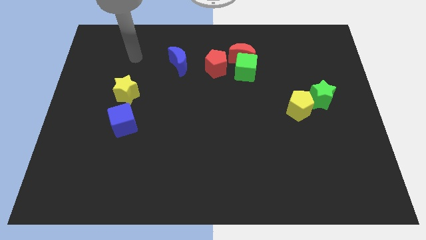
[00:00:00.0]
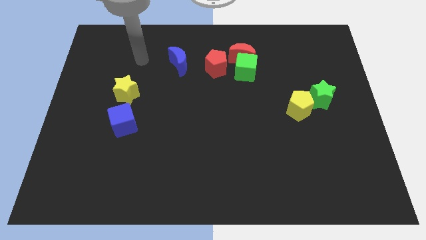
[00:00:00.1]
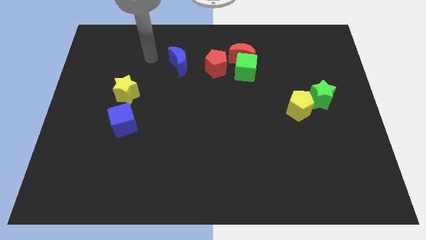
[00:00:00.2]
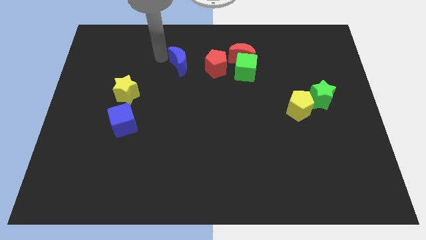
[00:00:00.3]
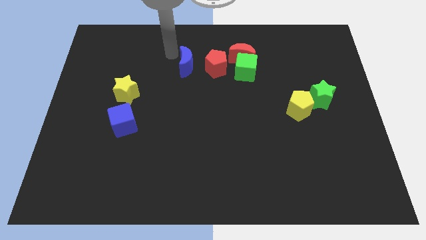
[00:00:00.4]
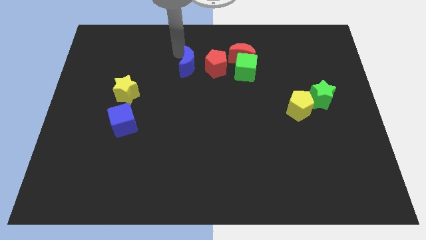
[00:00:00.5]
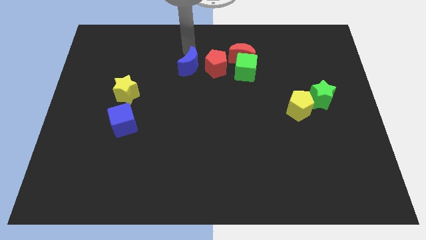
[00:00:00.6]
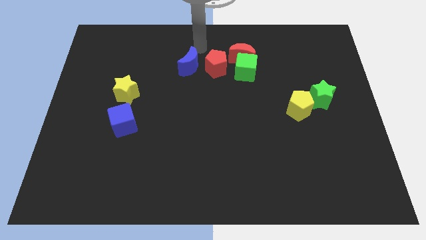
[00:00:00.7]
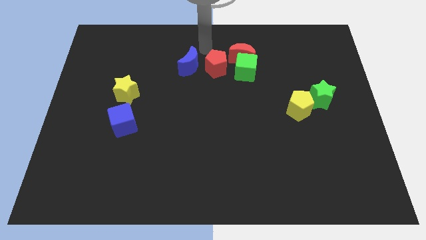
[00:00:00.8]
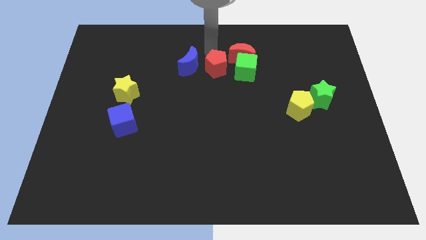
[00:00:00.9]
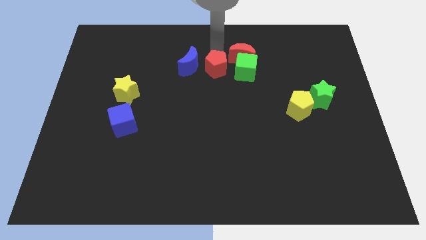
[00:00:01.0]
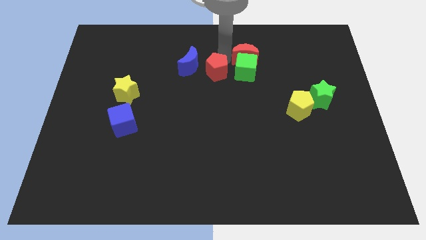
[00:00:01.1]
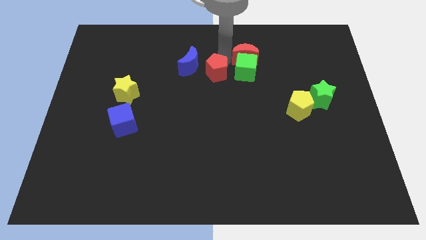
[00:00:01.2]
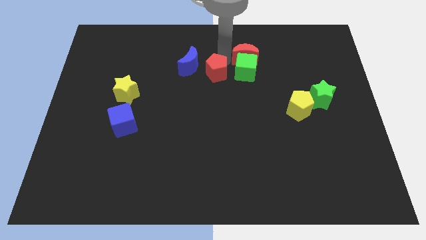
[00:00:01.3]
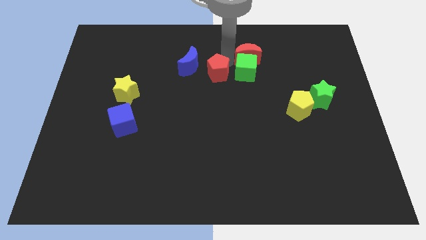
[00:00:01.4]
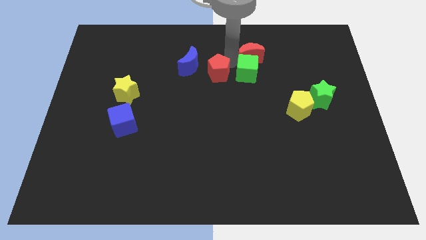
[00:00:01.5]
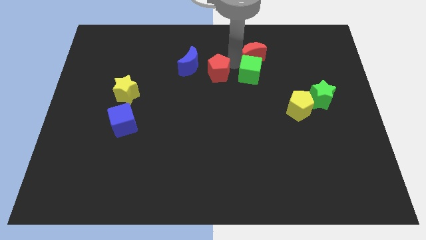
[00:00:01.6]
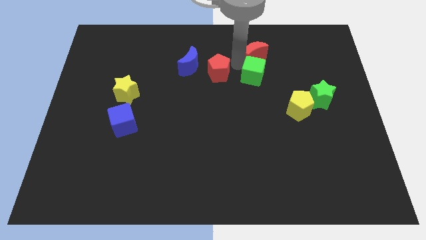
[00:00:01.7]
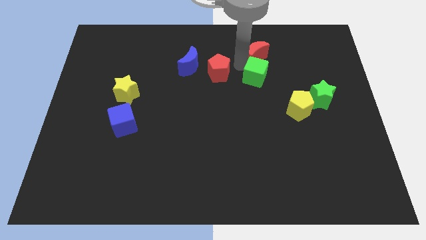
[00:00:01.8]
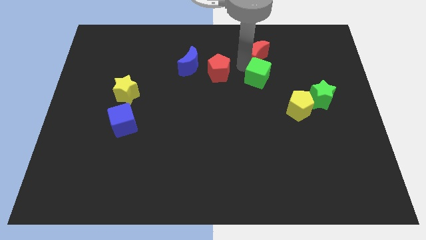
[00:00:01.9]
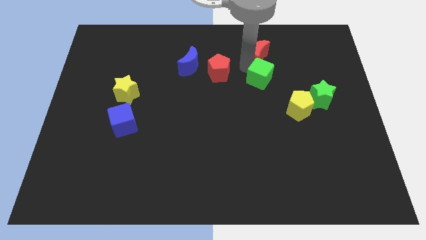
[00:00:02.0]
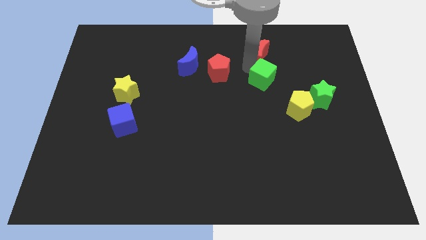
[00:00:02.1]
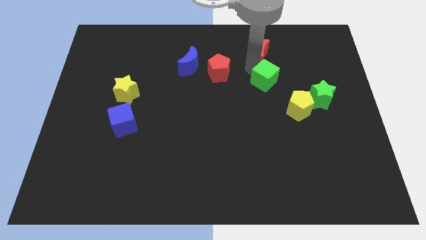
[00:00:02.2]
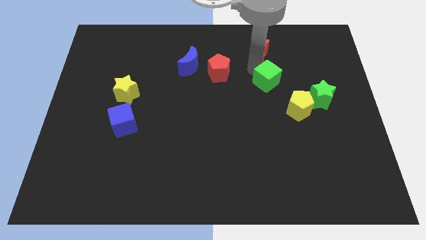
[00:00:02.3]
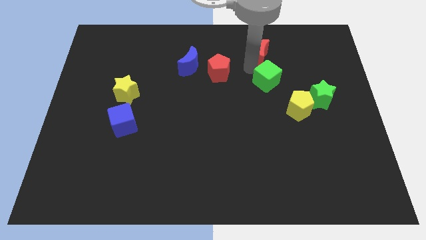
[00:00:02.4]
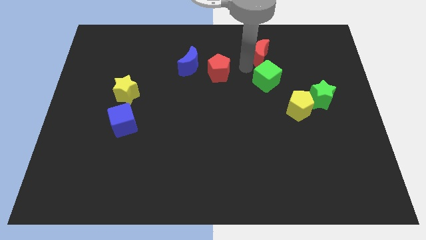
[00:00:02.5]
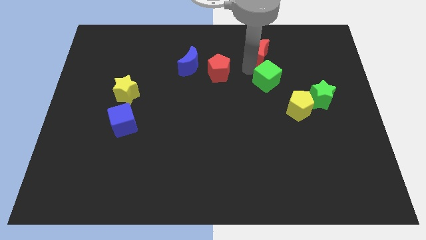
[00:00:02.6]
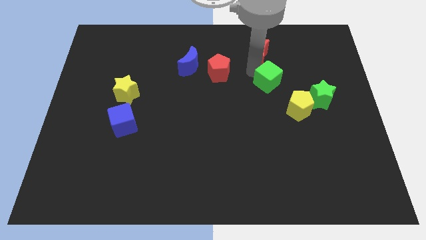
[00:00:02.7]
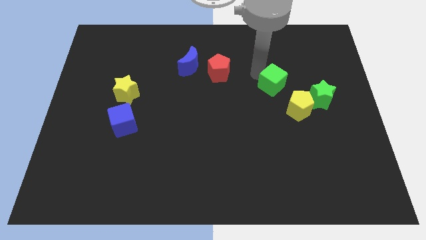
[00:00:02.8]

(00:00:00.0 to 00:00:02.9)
pull the green cube apart from the red moon and red pentagon

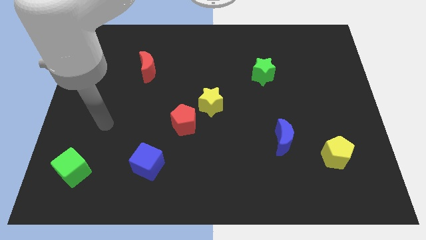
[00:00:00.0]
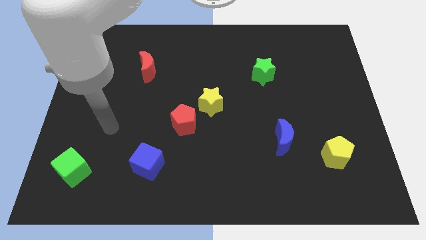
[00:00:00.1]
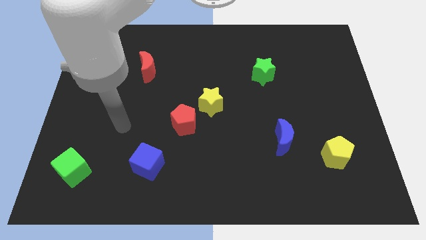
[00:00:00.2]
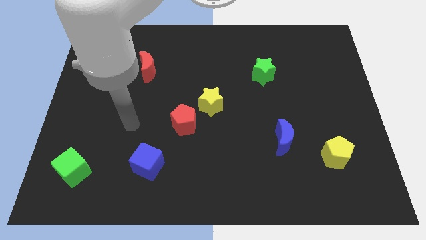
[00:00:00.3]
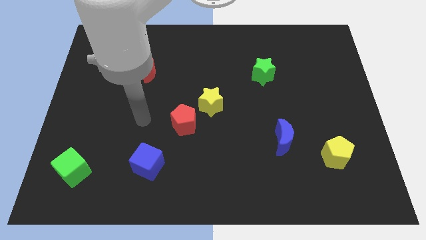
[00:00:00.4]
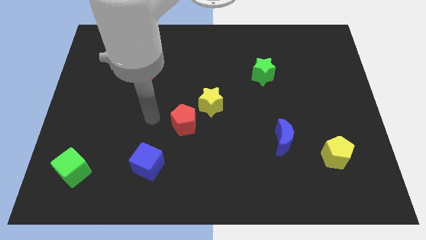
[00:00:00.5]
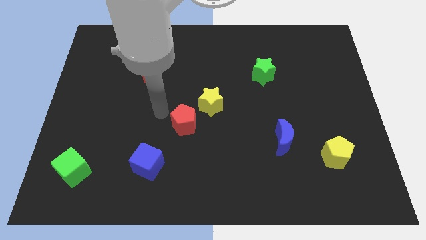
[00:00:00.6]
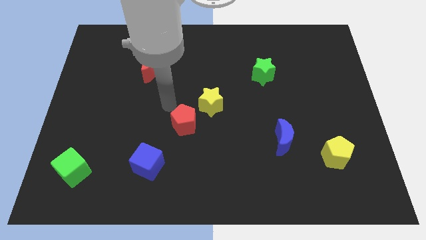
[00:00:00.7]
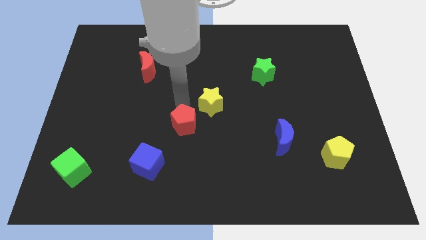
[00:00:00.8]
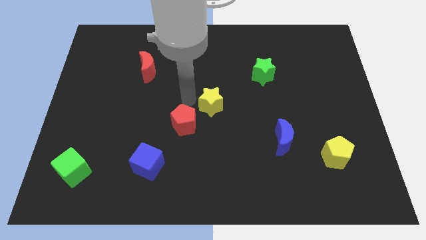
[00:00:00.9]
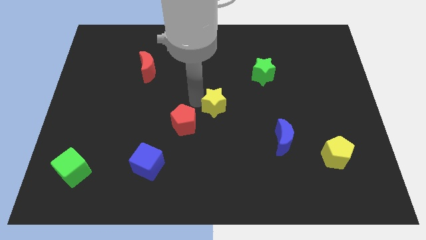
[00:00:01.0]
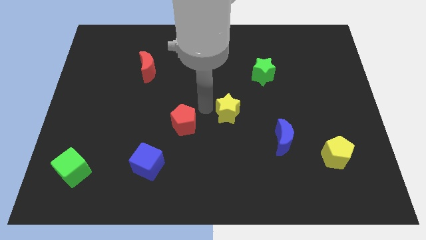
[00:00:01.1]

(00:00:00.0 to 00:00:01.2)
separate the red pentagon from the yellow star

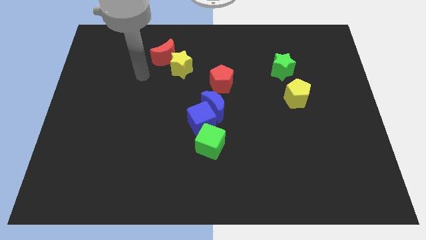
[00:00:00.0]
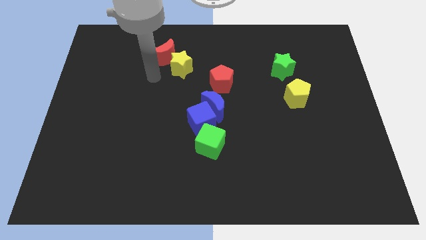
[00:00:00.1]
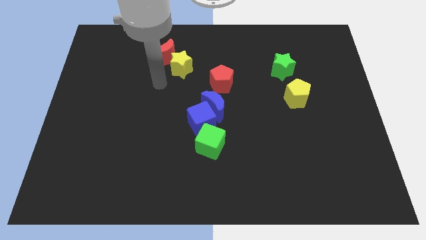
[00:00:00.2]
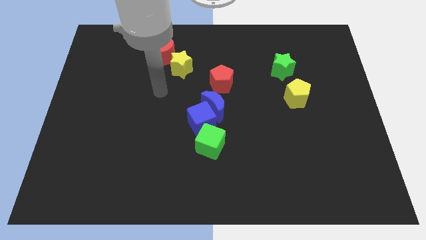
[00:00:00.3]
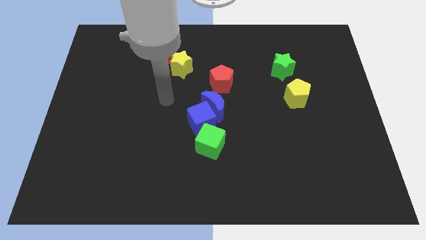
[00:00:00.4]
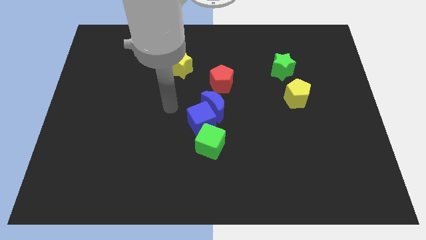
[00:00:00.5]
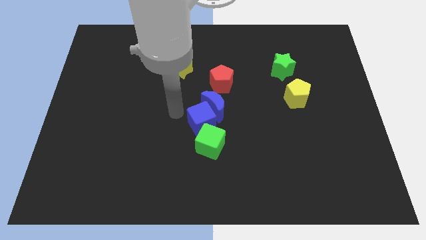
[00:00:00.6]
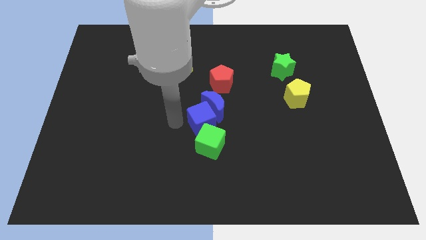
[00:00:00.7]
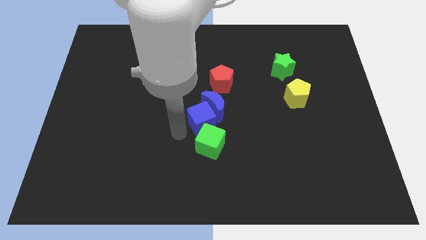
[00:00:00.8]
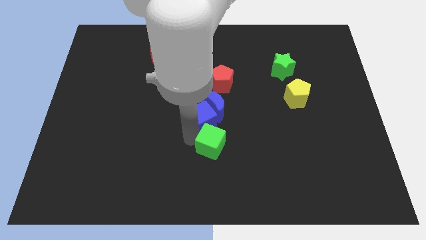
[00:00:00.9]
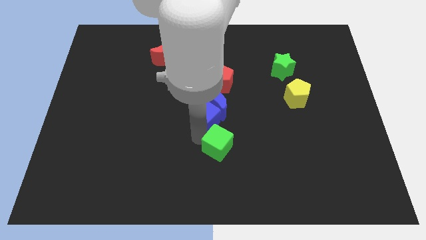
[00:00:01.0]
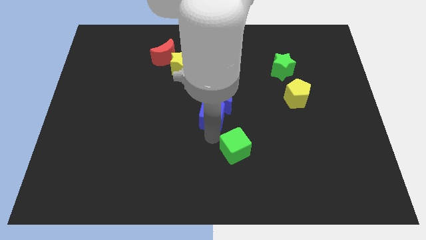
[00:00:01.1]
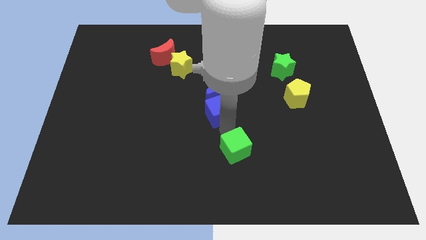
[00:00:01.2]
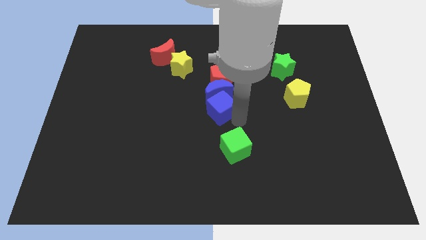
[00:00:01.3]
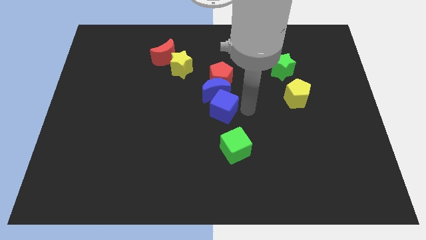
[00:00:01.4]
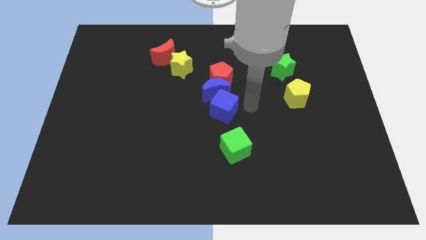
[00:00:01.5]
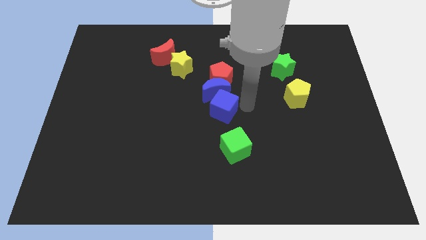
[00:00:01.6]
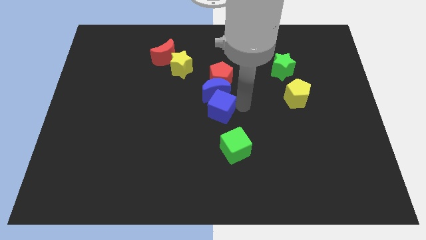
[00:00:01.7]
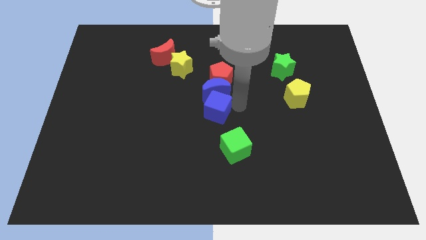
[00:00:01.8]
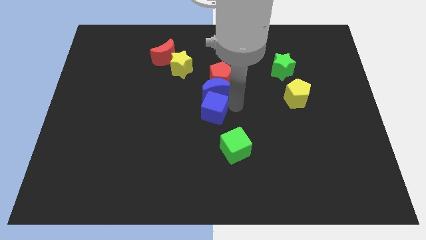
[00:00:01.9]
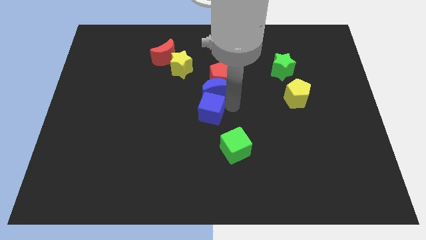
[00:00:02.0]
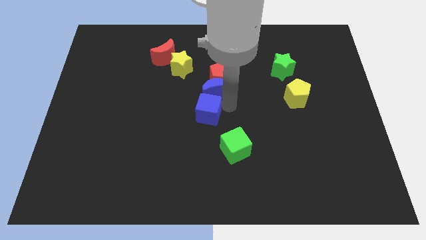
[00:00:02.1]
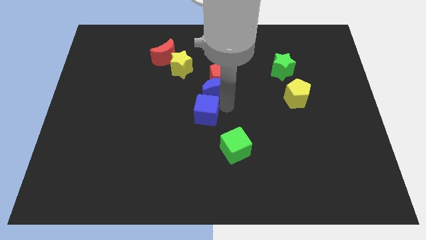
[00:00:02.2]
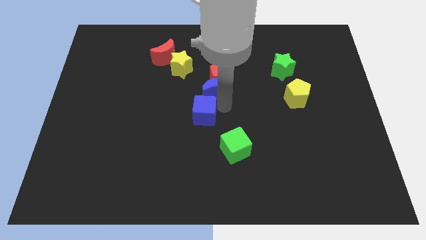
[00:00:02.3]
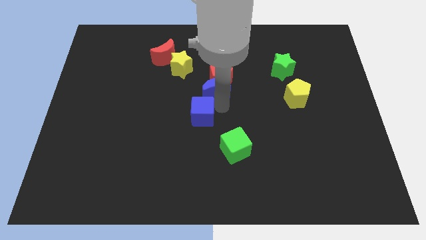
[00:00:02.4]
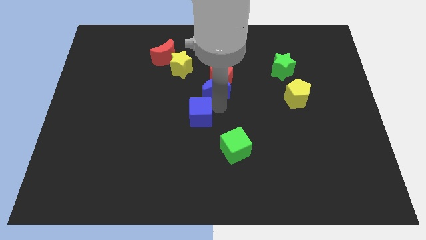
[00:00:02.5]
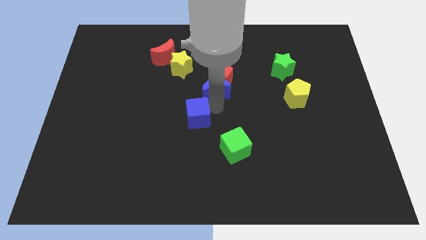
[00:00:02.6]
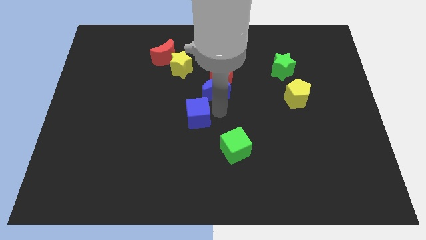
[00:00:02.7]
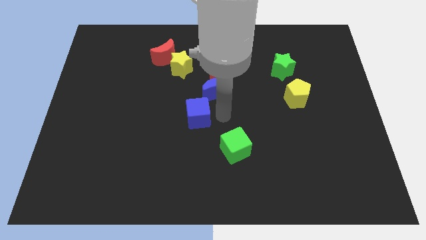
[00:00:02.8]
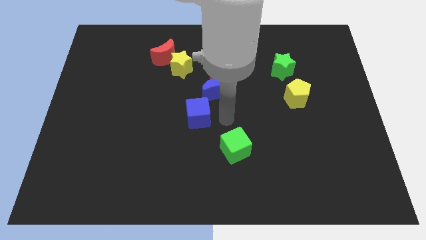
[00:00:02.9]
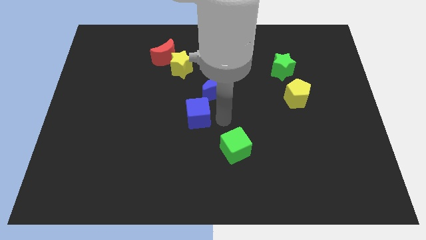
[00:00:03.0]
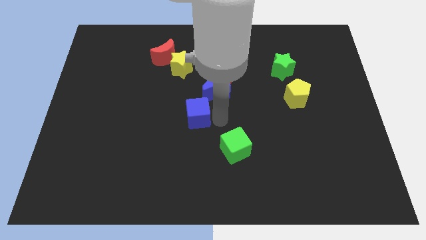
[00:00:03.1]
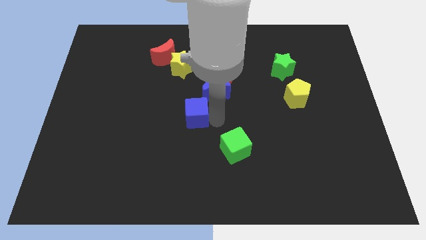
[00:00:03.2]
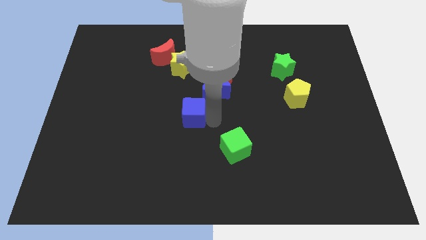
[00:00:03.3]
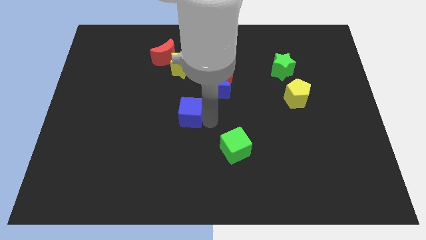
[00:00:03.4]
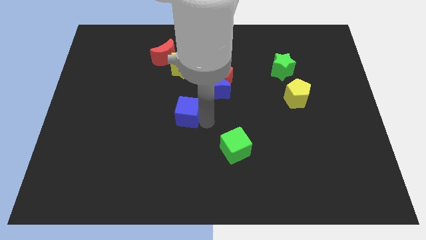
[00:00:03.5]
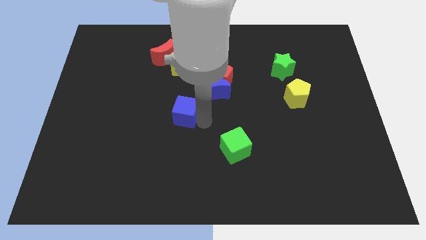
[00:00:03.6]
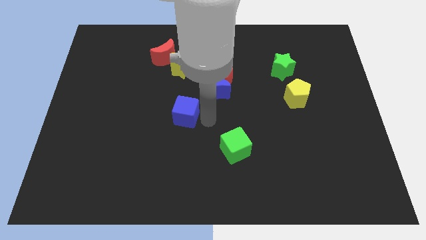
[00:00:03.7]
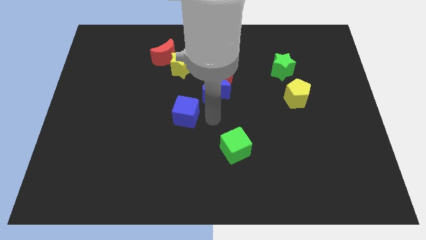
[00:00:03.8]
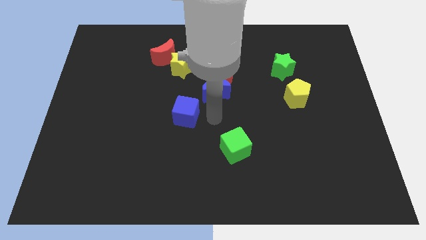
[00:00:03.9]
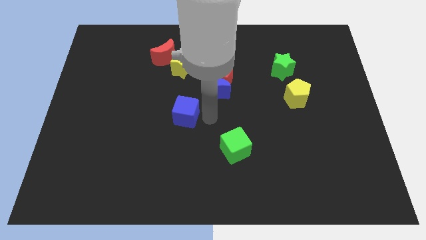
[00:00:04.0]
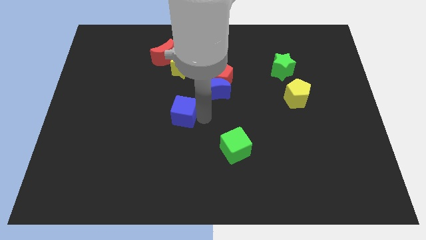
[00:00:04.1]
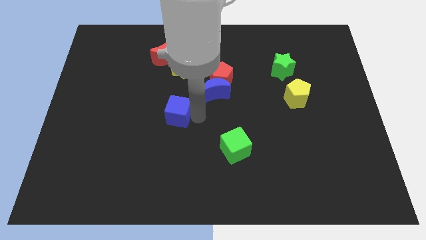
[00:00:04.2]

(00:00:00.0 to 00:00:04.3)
pull the blue cube apart from the blue moon and green cube

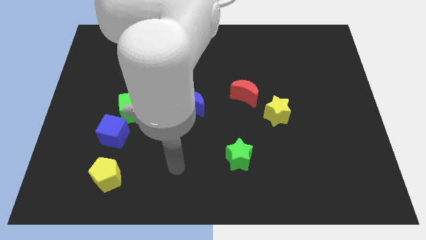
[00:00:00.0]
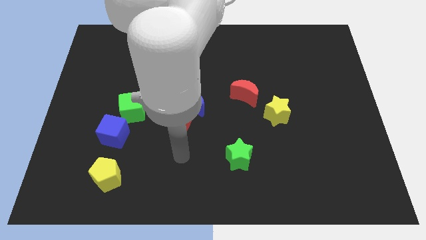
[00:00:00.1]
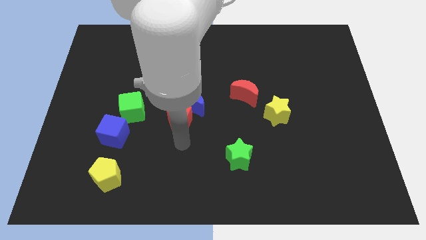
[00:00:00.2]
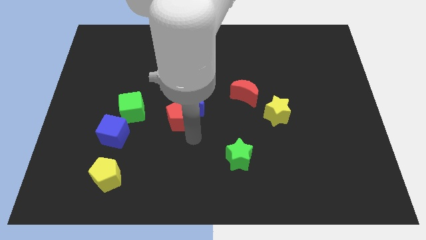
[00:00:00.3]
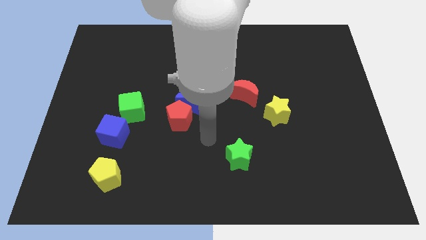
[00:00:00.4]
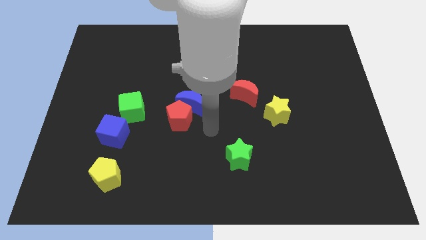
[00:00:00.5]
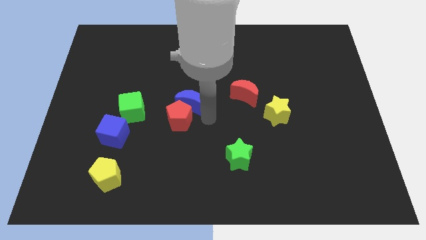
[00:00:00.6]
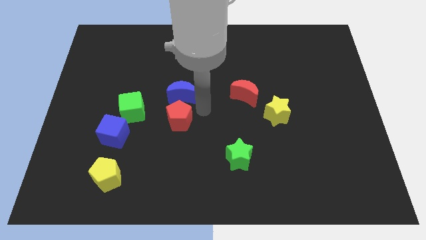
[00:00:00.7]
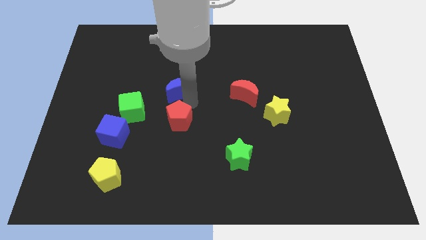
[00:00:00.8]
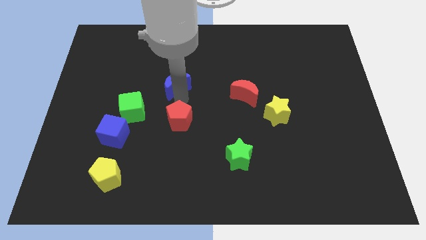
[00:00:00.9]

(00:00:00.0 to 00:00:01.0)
move the red pentagon away from the blue moon
